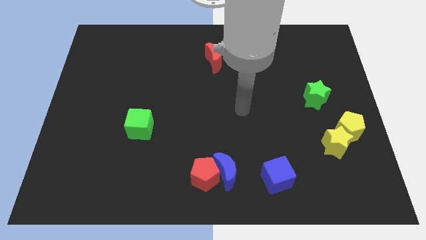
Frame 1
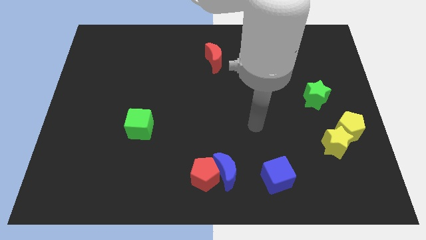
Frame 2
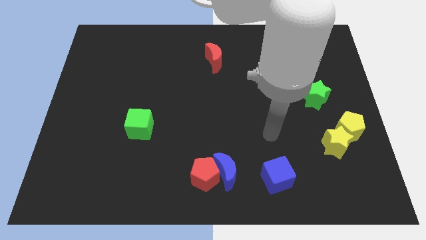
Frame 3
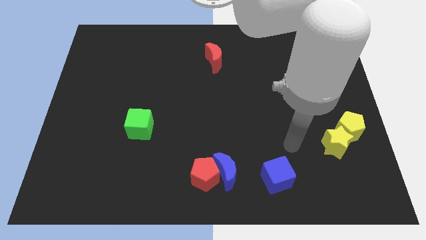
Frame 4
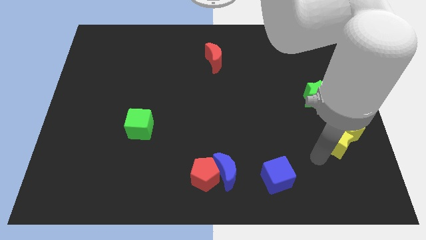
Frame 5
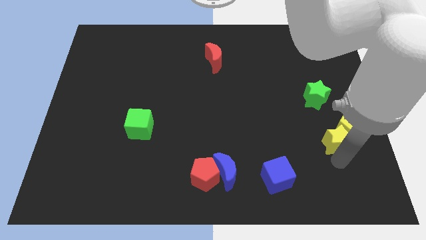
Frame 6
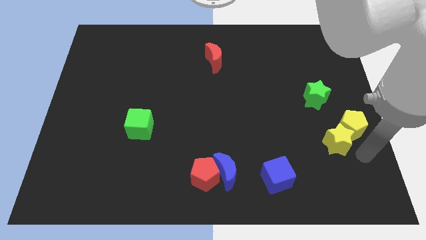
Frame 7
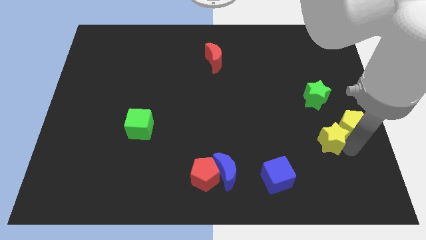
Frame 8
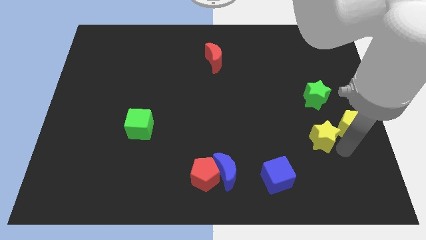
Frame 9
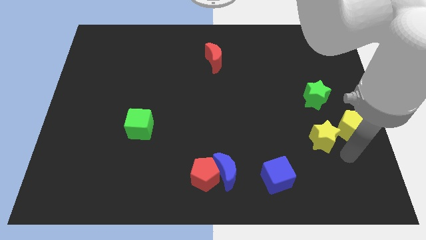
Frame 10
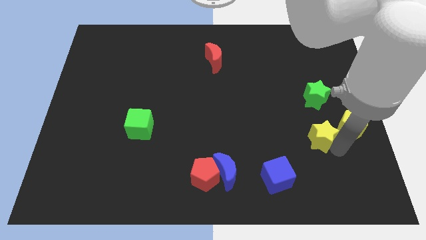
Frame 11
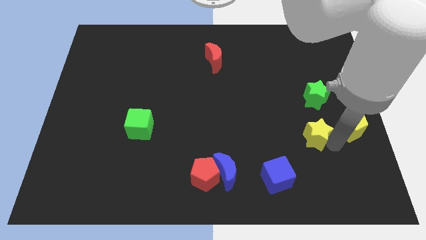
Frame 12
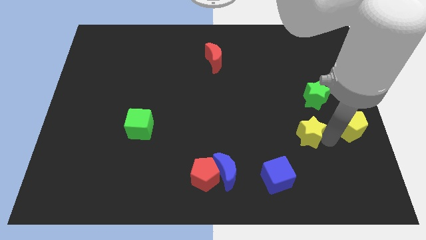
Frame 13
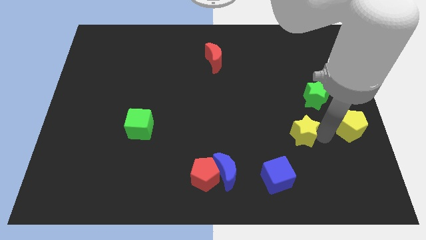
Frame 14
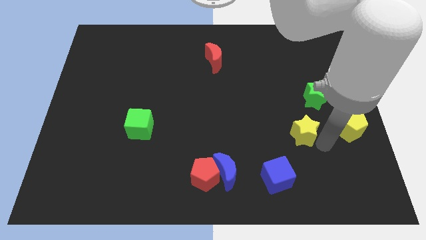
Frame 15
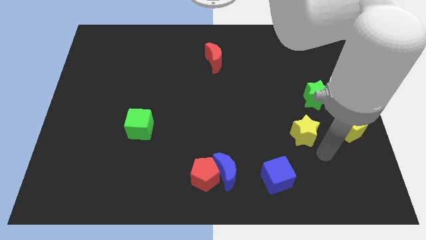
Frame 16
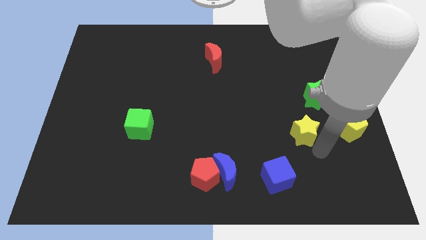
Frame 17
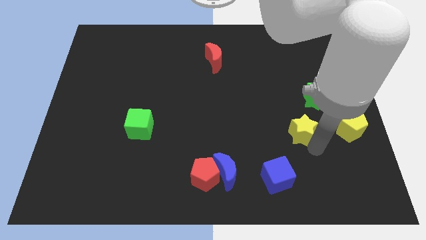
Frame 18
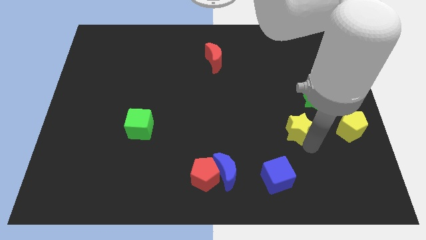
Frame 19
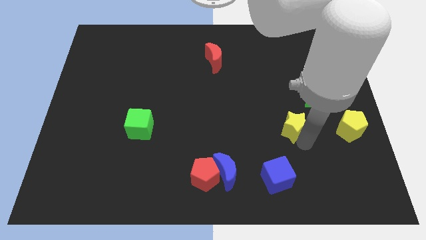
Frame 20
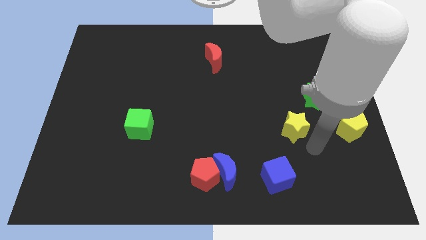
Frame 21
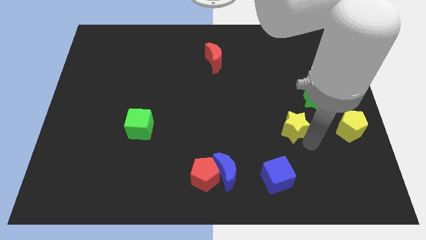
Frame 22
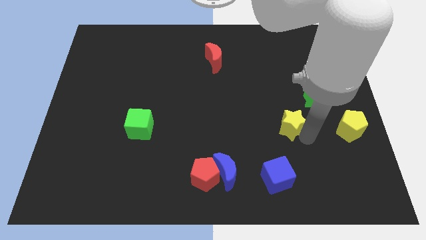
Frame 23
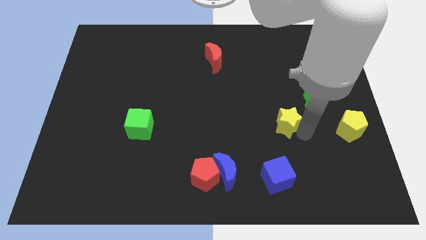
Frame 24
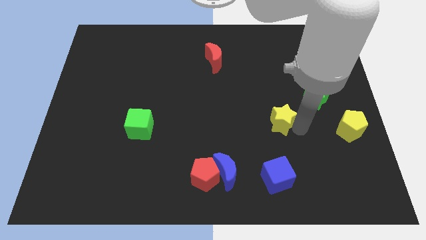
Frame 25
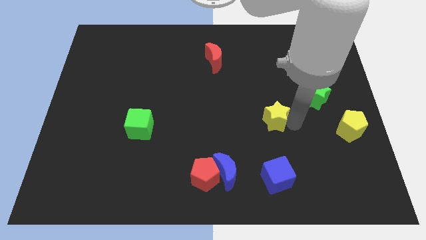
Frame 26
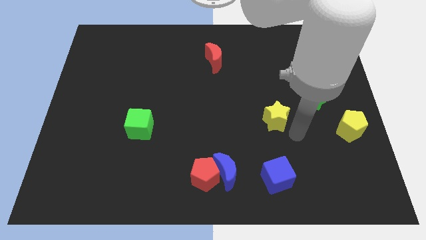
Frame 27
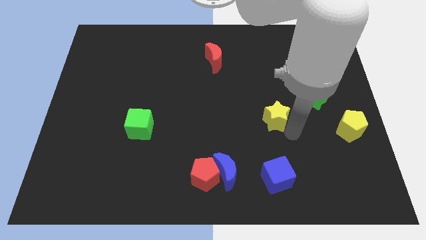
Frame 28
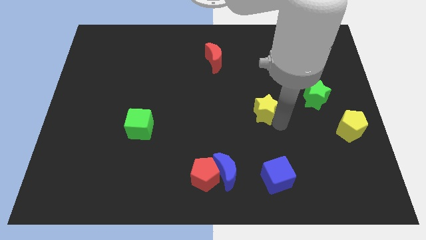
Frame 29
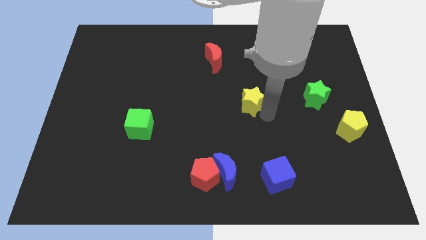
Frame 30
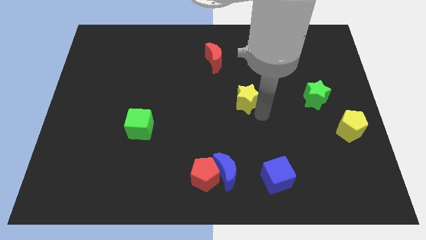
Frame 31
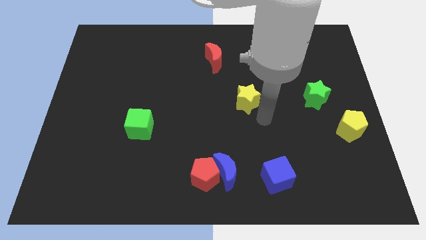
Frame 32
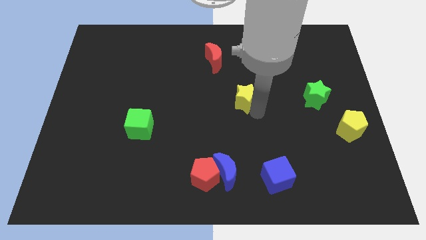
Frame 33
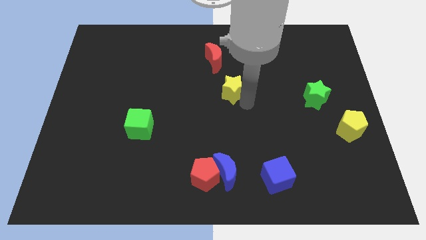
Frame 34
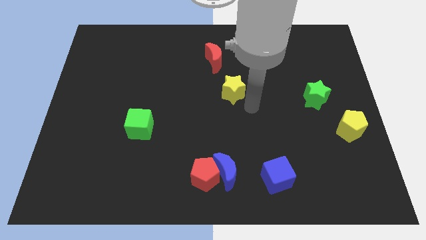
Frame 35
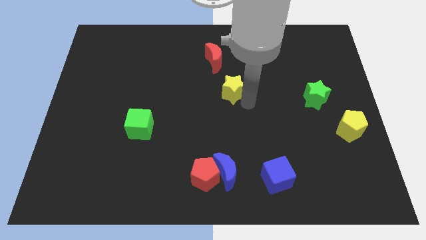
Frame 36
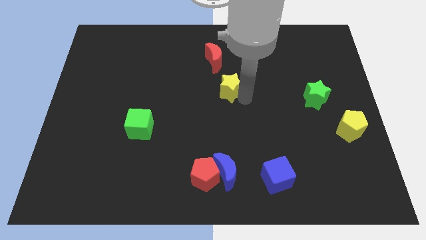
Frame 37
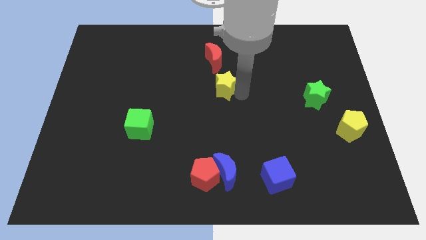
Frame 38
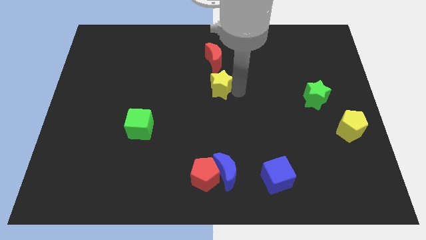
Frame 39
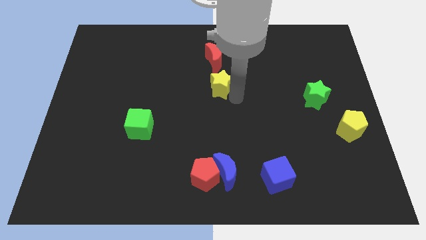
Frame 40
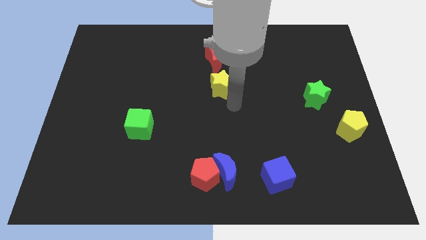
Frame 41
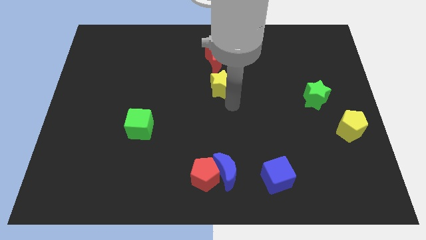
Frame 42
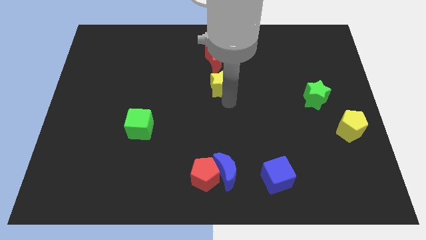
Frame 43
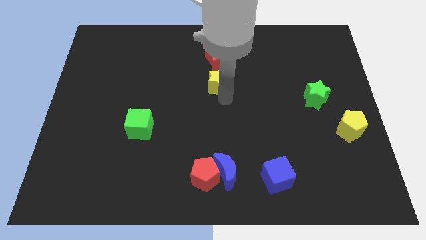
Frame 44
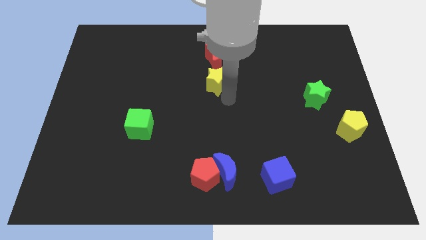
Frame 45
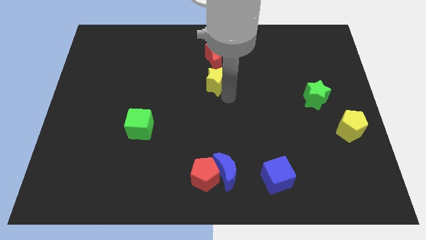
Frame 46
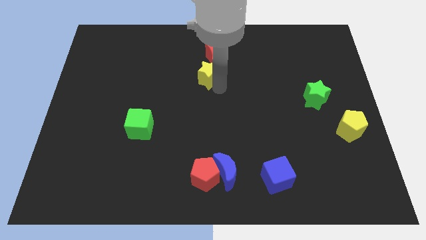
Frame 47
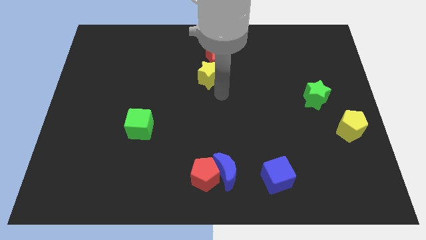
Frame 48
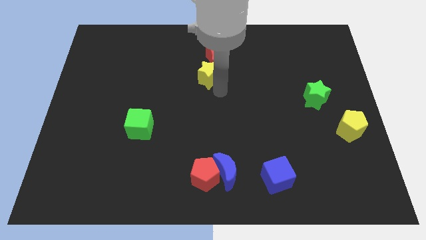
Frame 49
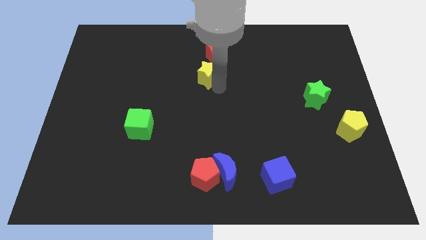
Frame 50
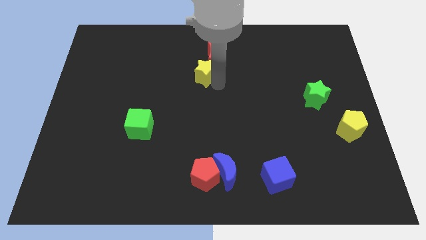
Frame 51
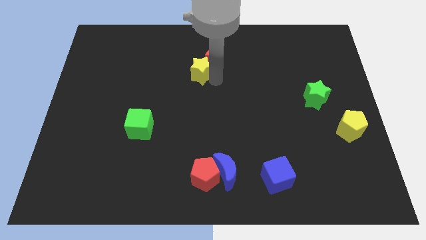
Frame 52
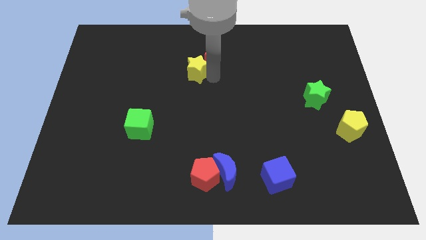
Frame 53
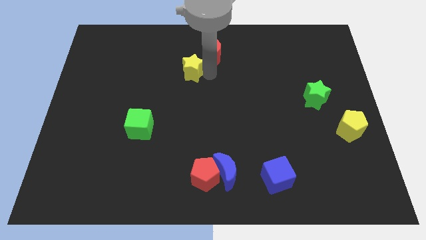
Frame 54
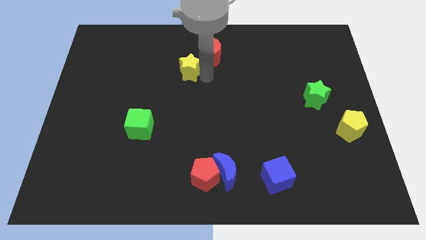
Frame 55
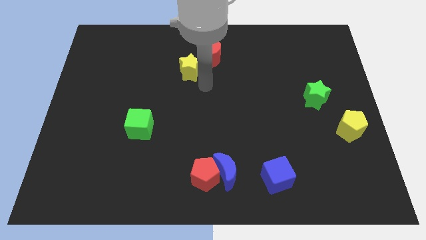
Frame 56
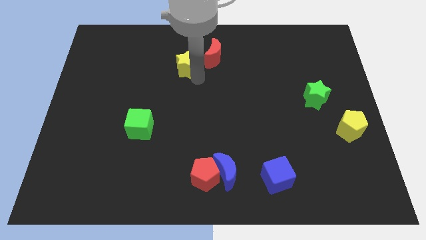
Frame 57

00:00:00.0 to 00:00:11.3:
push the yellow star left of the red moon

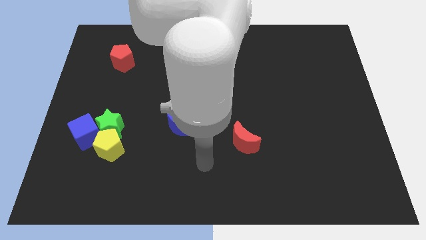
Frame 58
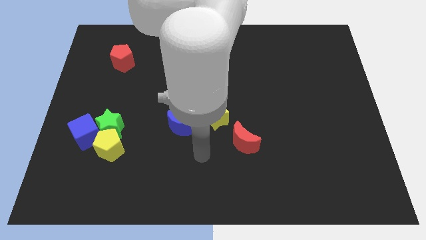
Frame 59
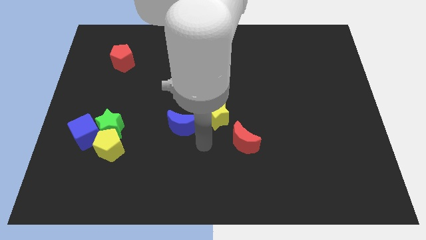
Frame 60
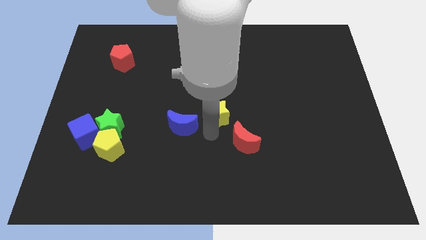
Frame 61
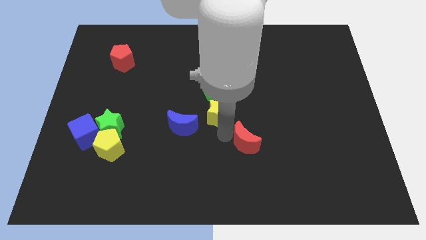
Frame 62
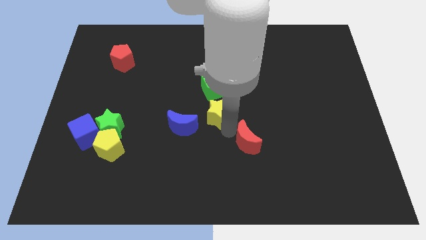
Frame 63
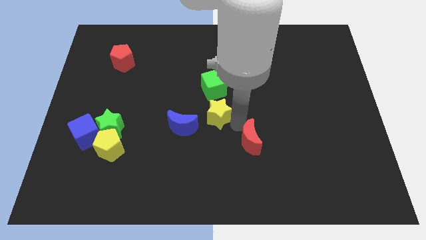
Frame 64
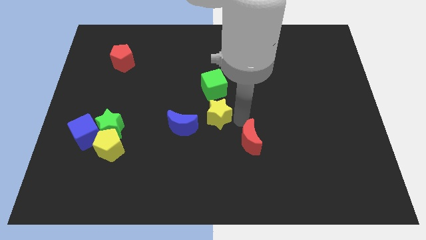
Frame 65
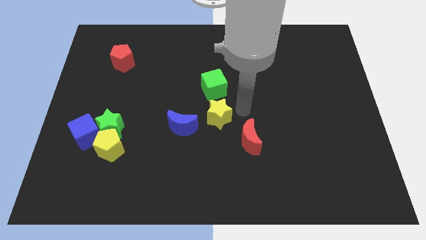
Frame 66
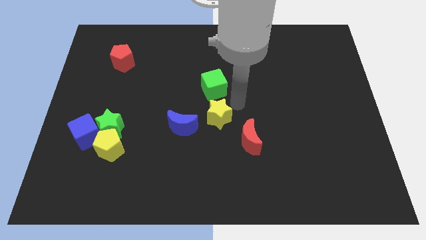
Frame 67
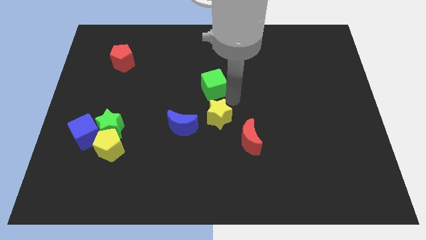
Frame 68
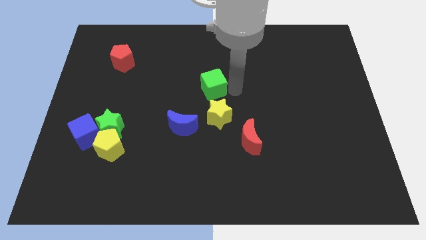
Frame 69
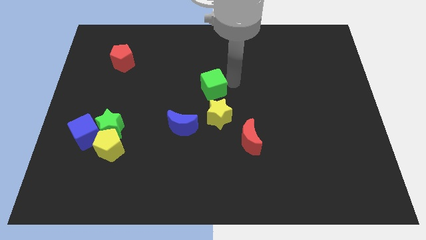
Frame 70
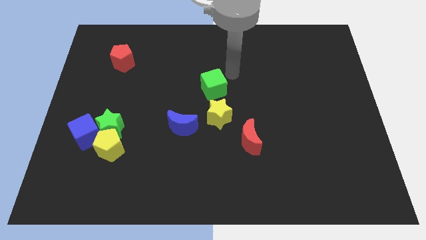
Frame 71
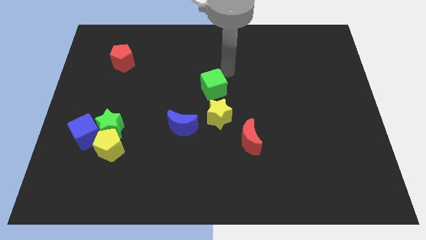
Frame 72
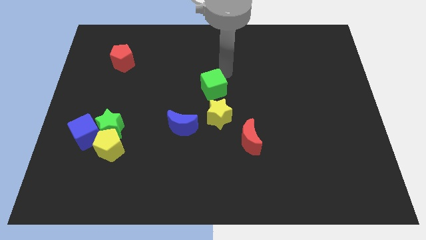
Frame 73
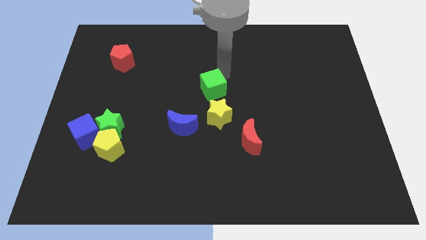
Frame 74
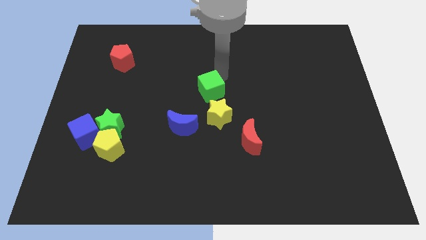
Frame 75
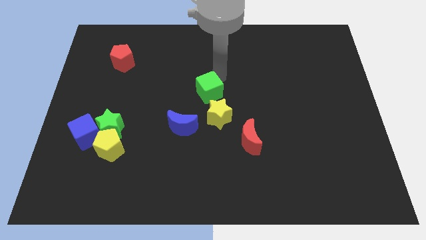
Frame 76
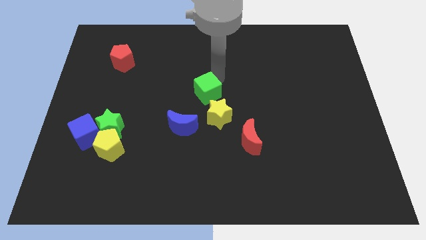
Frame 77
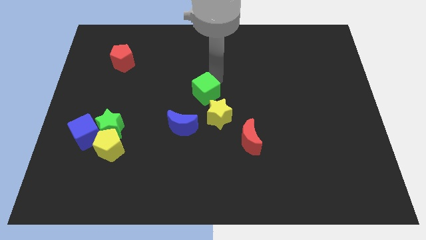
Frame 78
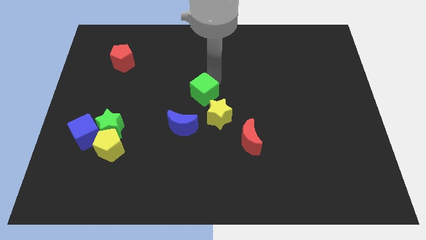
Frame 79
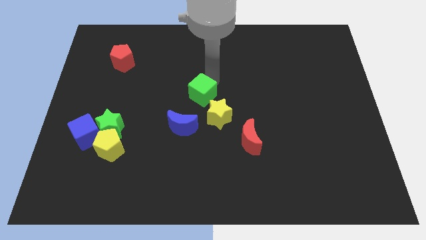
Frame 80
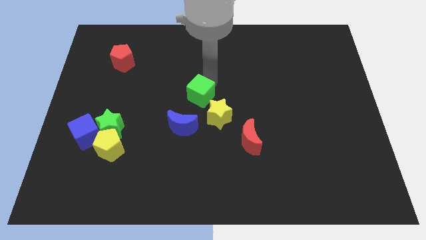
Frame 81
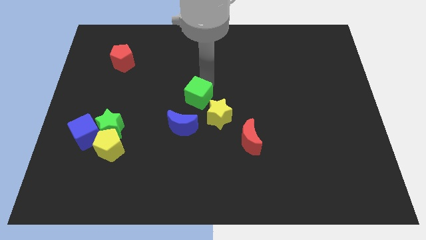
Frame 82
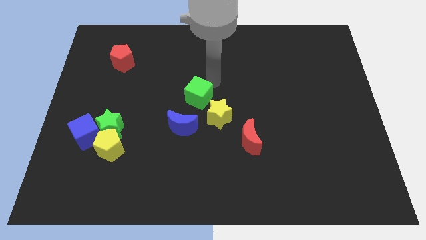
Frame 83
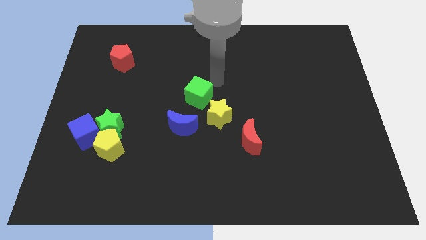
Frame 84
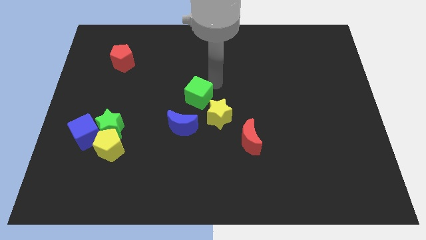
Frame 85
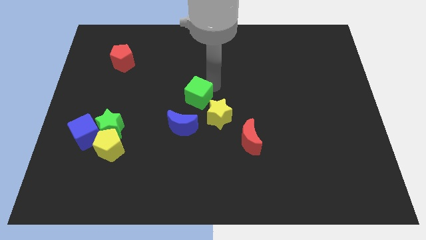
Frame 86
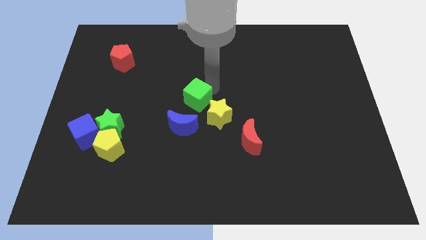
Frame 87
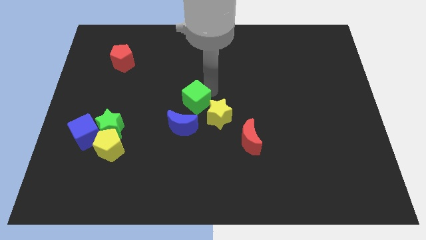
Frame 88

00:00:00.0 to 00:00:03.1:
push the green cube just left of the yellow star
